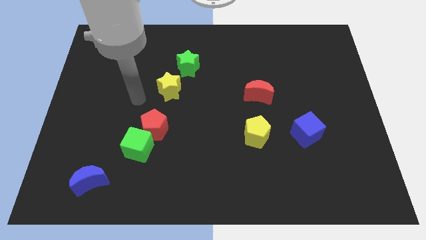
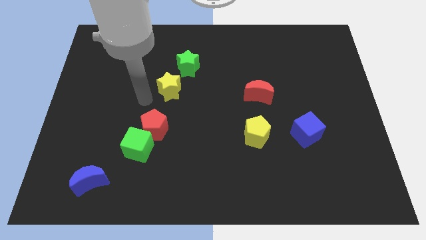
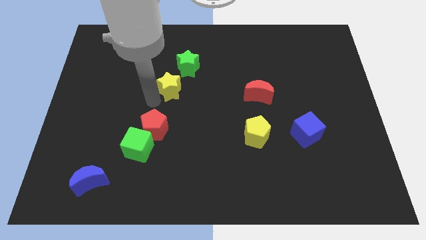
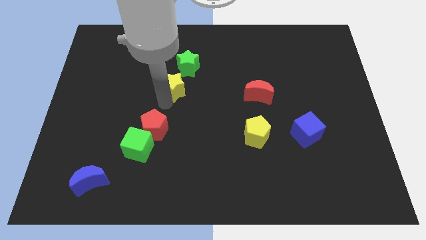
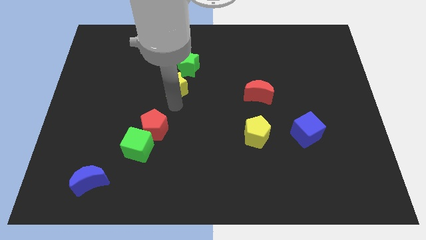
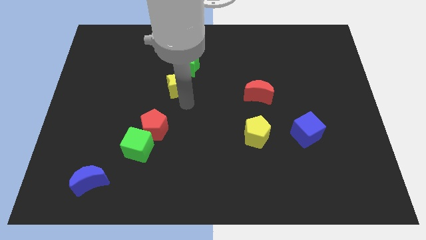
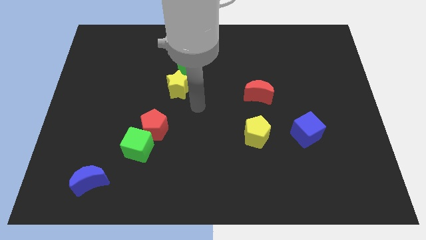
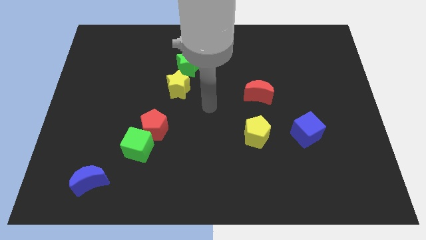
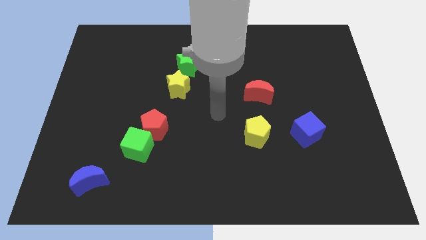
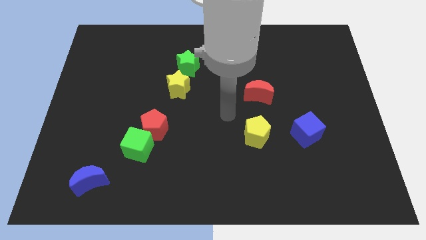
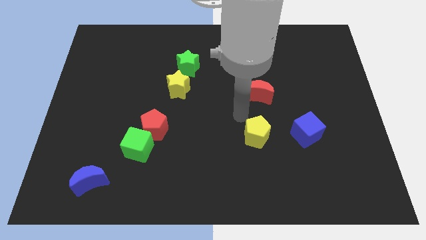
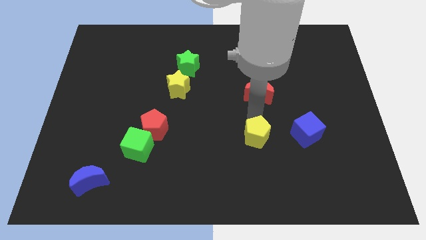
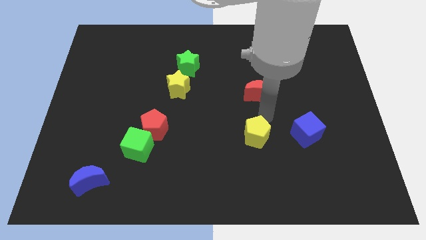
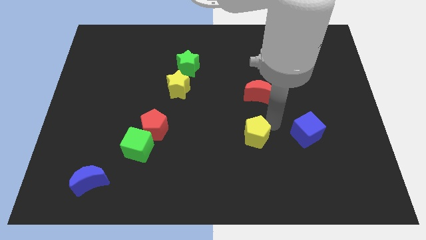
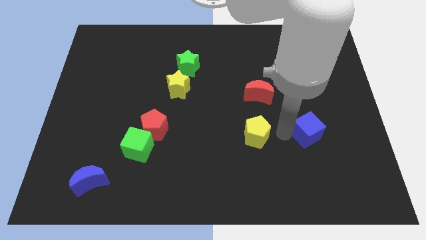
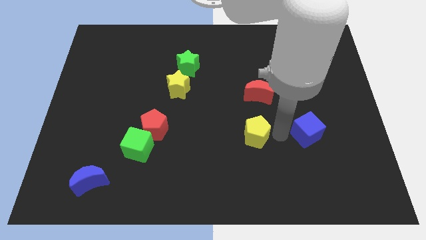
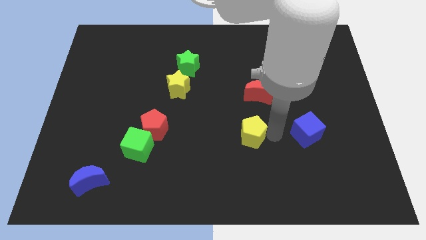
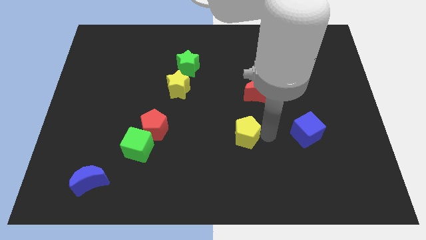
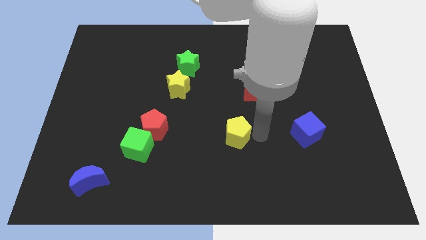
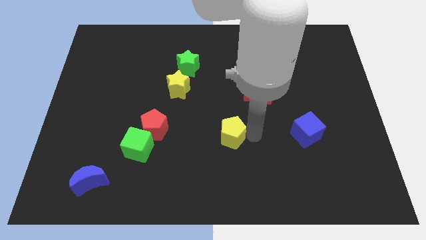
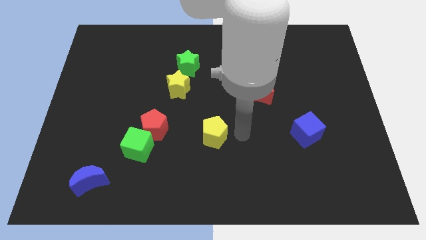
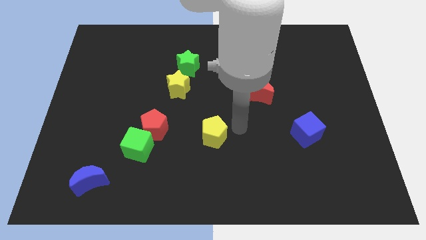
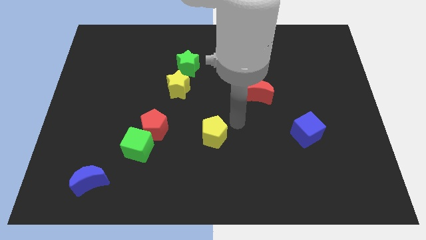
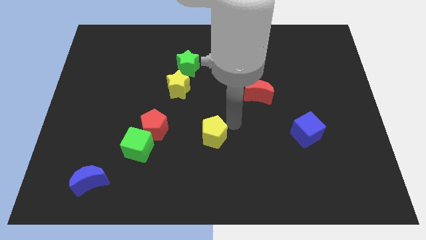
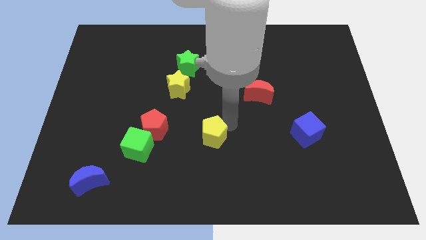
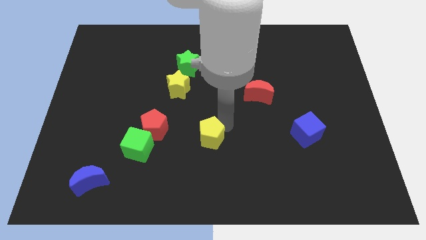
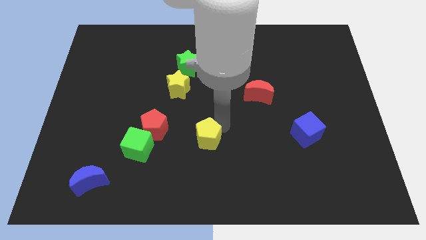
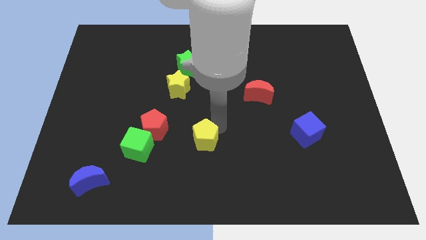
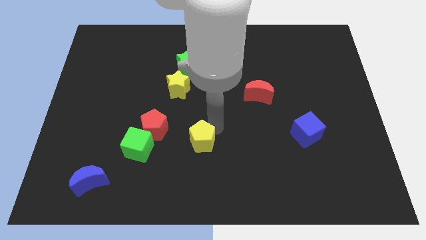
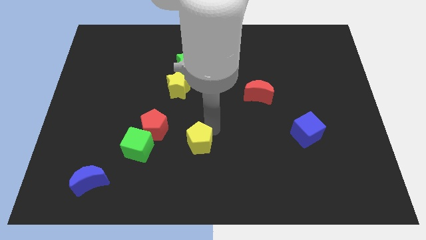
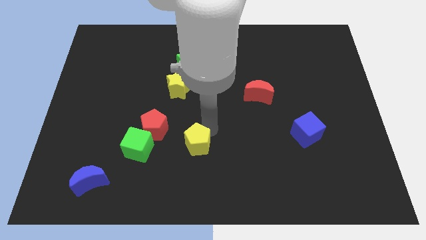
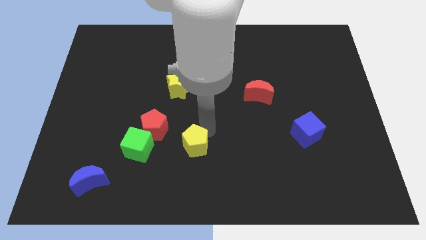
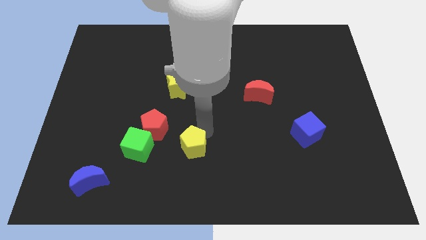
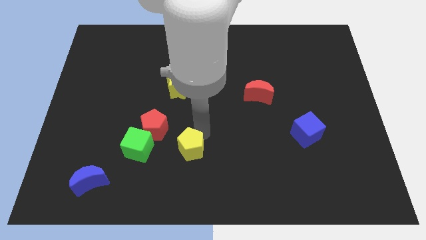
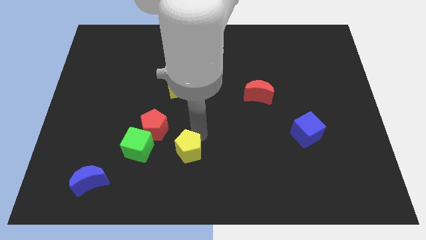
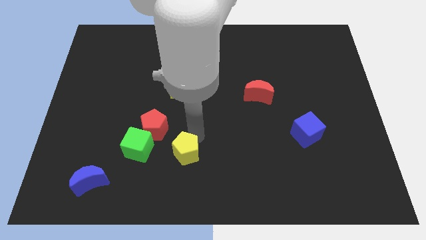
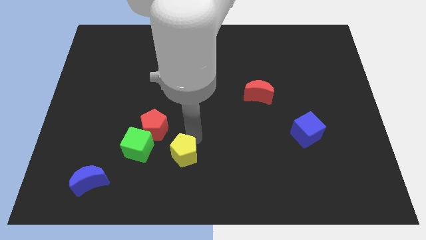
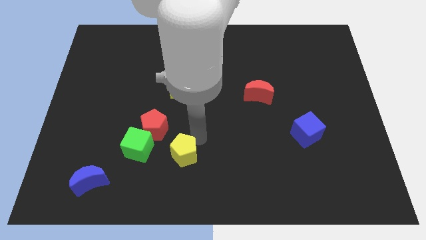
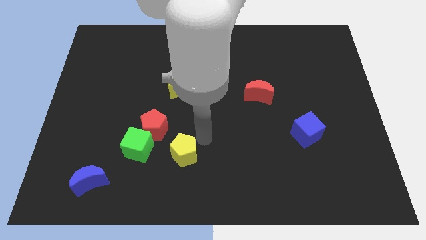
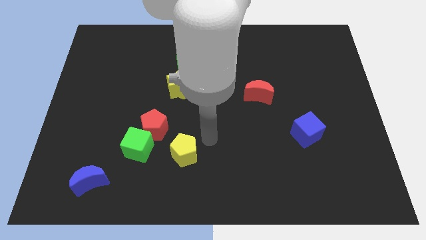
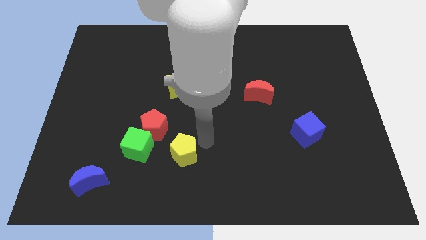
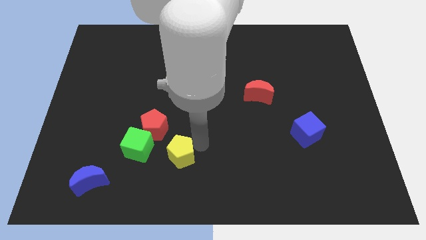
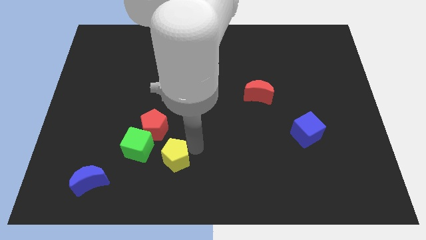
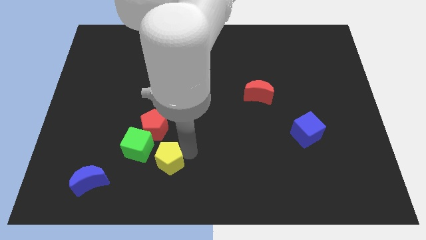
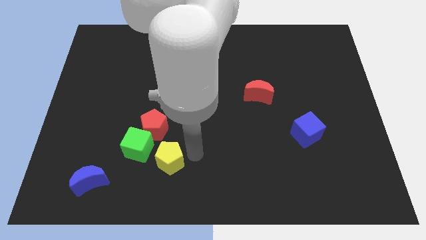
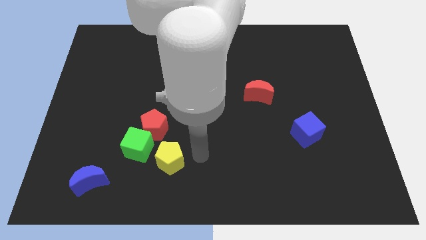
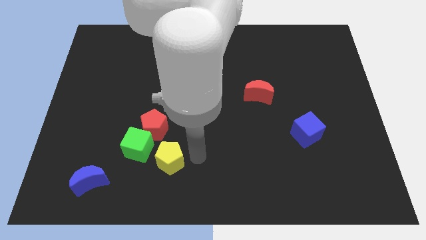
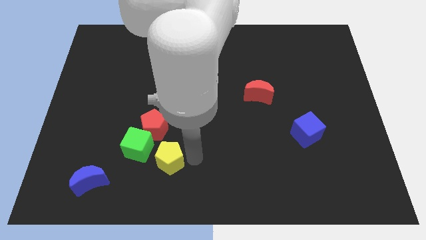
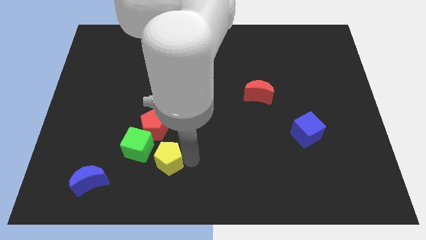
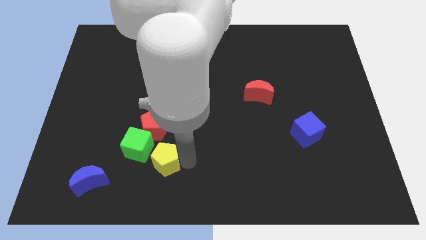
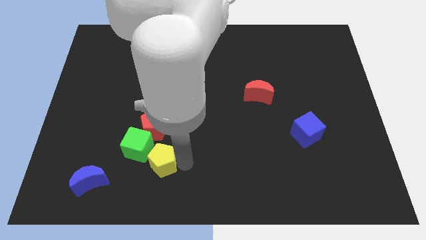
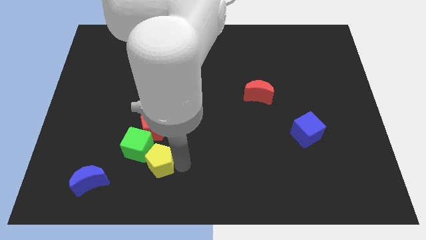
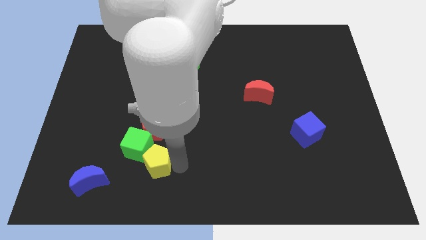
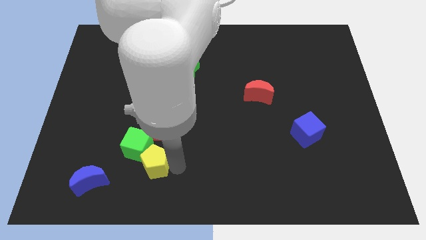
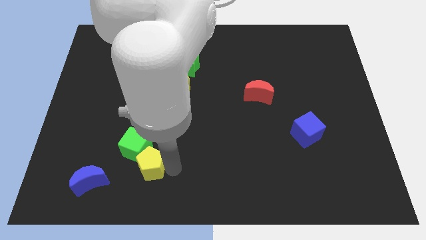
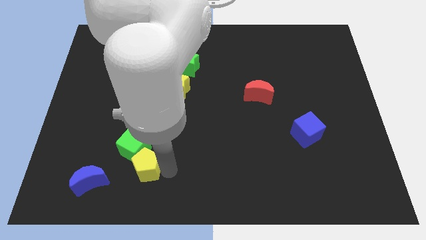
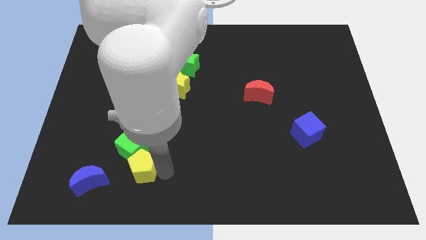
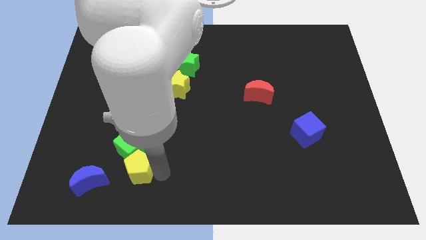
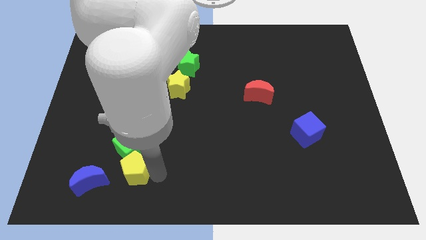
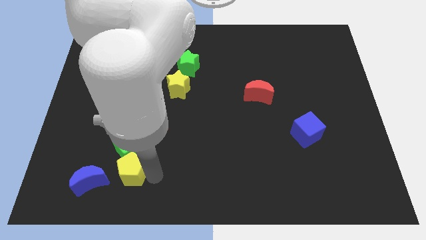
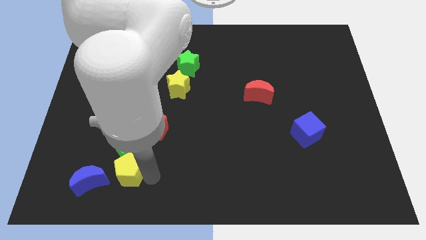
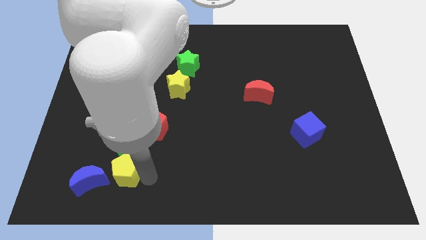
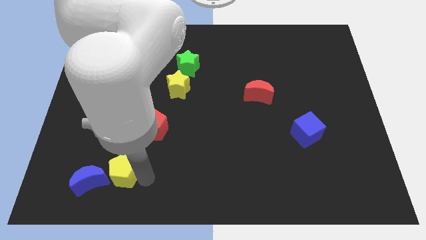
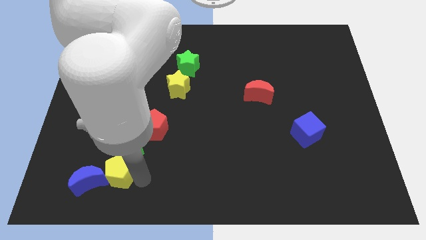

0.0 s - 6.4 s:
put the yellow pentagon towards the blue moon
